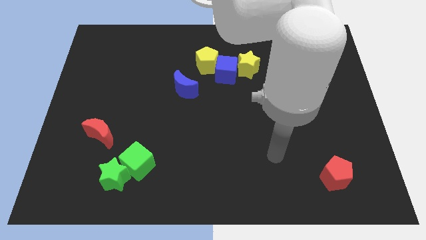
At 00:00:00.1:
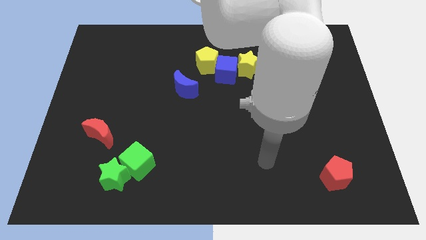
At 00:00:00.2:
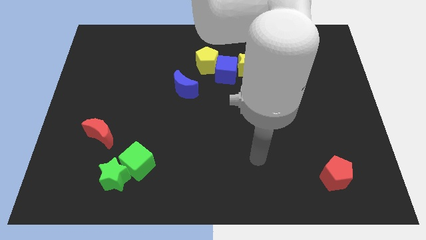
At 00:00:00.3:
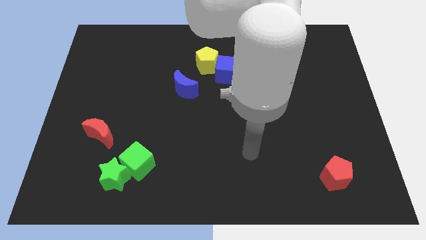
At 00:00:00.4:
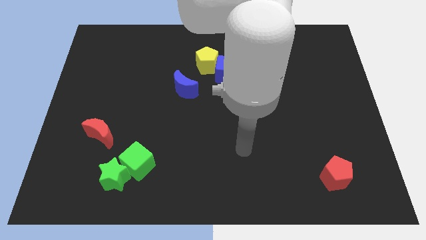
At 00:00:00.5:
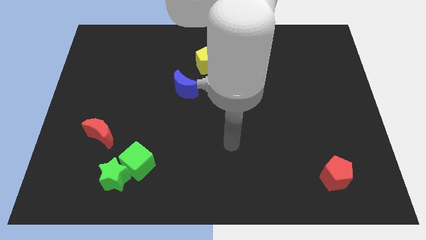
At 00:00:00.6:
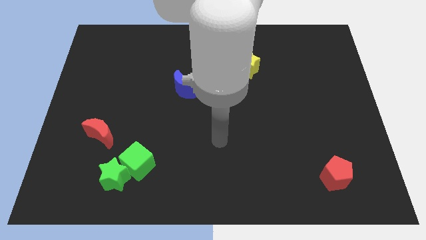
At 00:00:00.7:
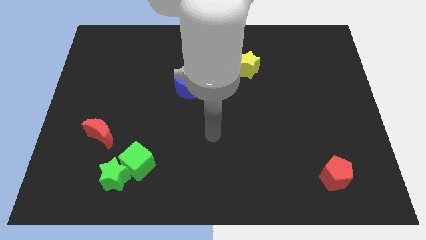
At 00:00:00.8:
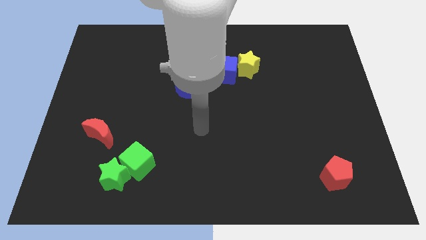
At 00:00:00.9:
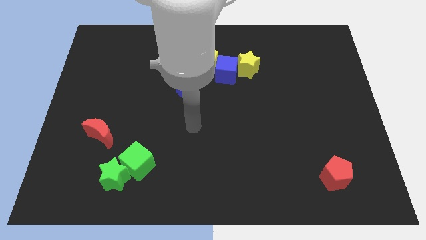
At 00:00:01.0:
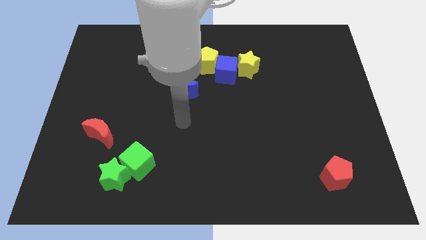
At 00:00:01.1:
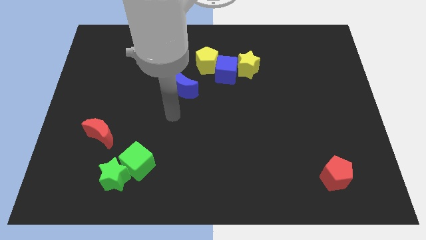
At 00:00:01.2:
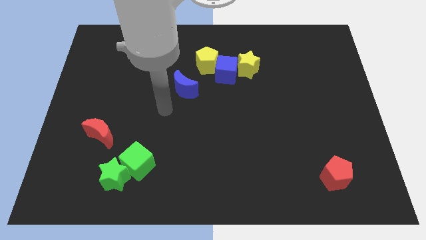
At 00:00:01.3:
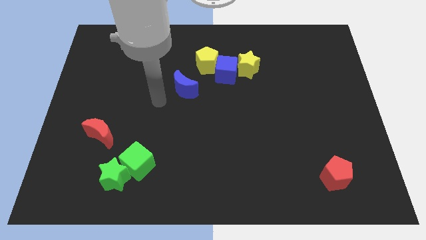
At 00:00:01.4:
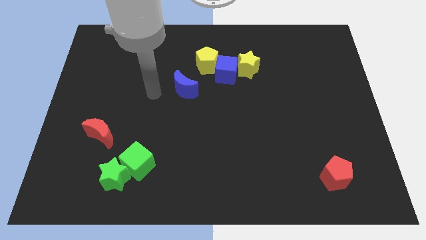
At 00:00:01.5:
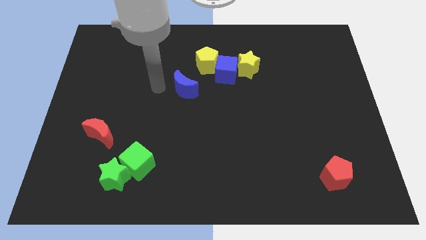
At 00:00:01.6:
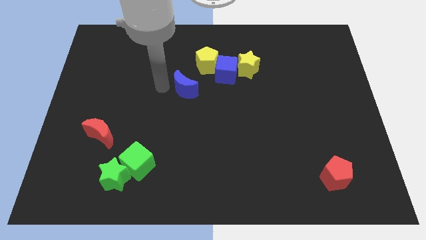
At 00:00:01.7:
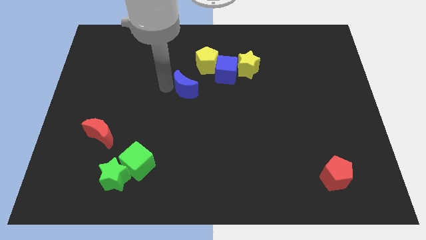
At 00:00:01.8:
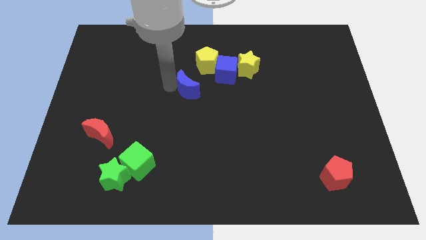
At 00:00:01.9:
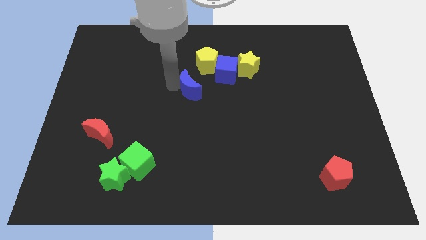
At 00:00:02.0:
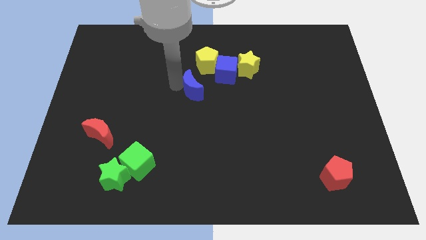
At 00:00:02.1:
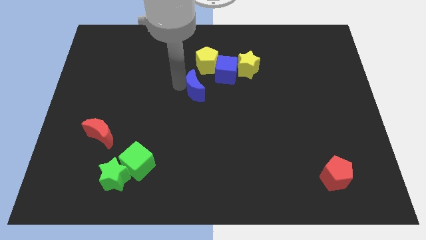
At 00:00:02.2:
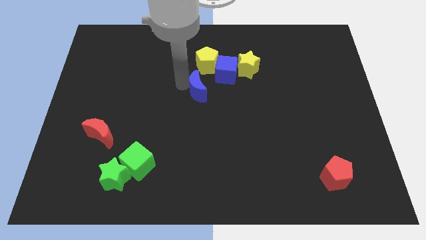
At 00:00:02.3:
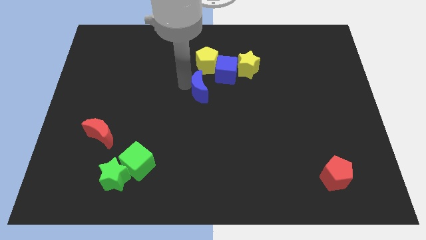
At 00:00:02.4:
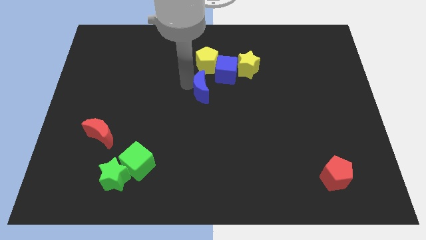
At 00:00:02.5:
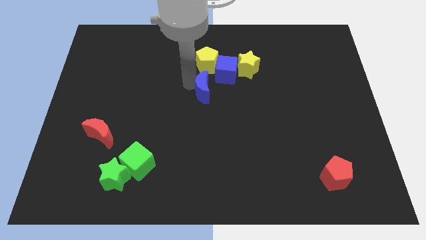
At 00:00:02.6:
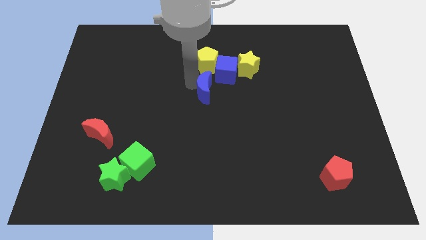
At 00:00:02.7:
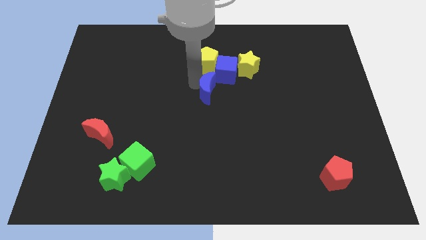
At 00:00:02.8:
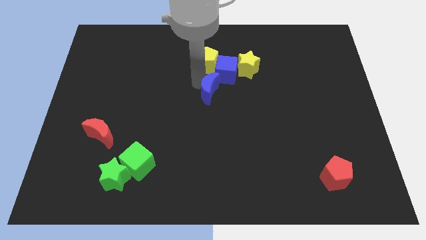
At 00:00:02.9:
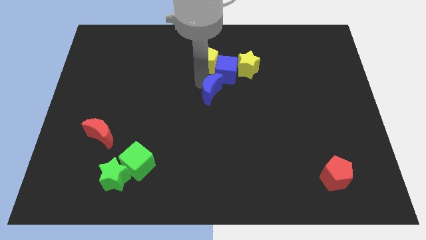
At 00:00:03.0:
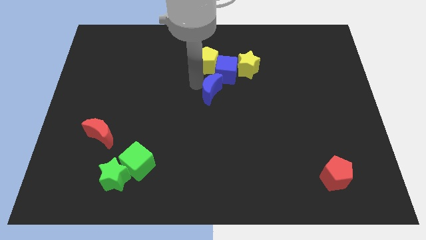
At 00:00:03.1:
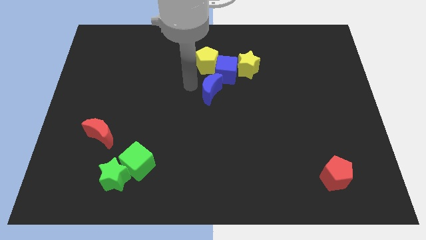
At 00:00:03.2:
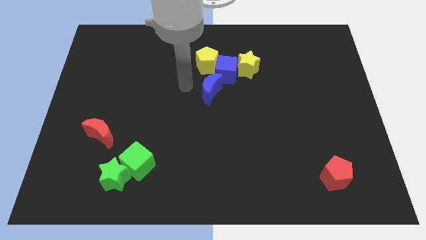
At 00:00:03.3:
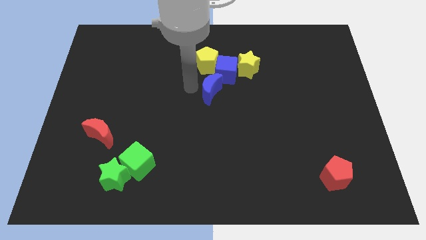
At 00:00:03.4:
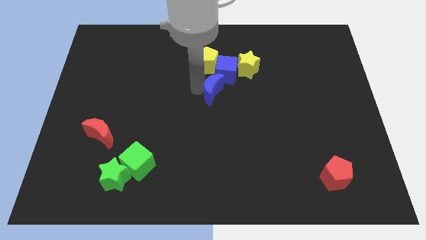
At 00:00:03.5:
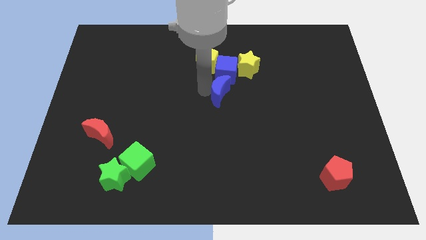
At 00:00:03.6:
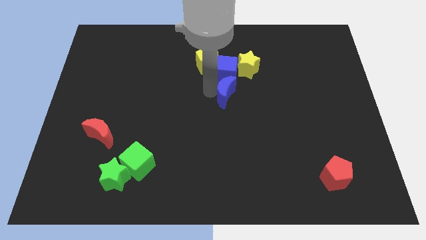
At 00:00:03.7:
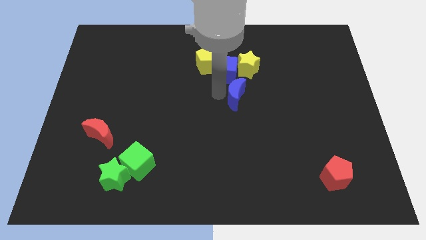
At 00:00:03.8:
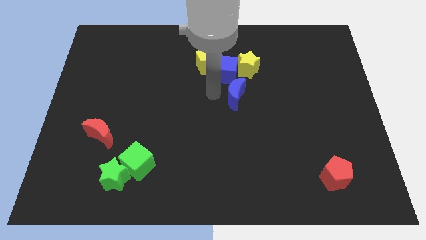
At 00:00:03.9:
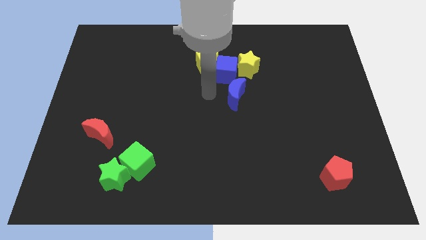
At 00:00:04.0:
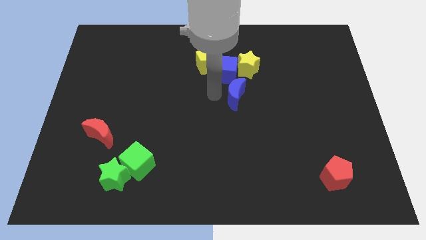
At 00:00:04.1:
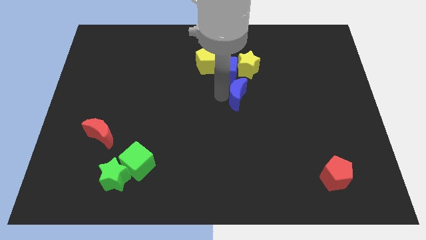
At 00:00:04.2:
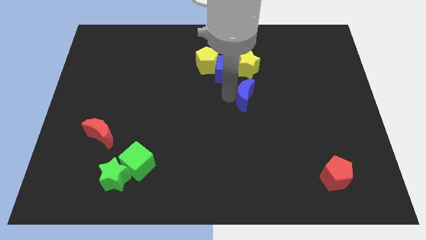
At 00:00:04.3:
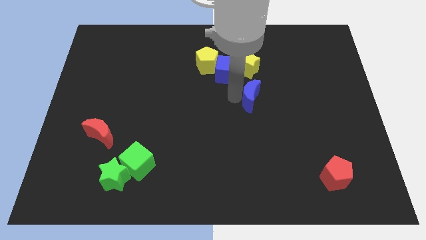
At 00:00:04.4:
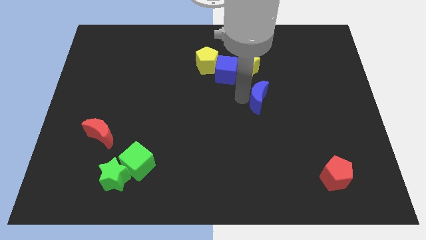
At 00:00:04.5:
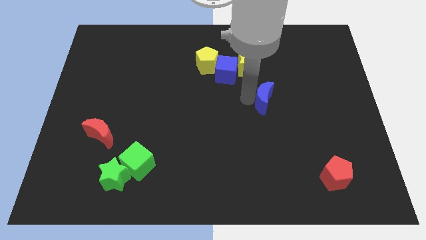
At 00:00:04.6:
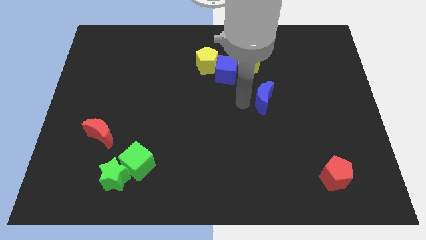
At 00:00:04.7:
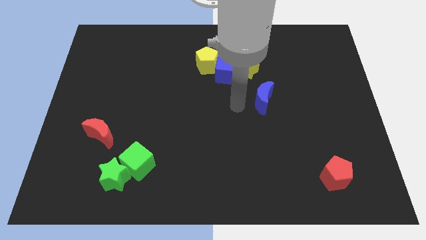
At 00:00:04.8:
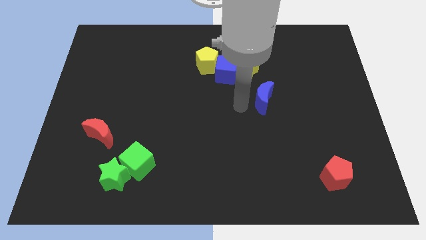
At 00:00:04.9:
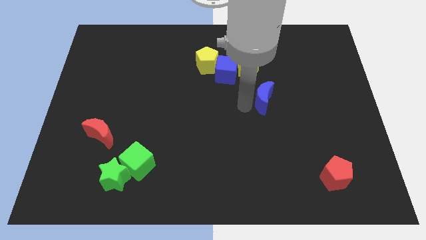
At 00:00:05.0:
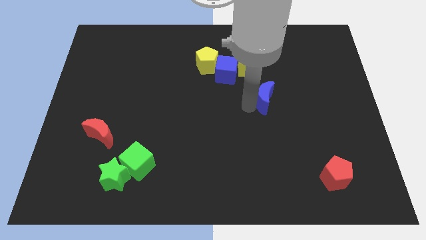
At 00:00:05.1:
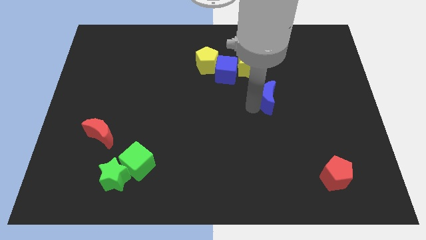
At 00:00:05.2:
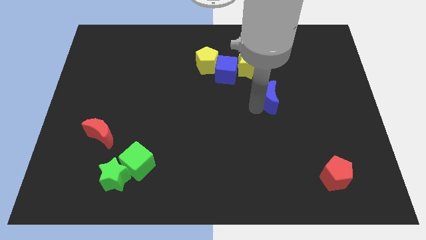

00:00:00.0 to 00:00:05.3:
move the blue moon to the right

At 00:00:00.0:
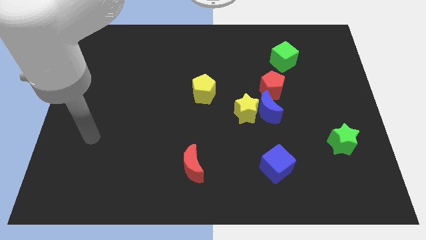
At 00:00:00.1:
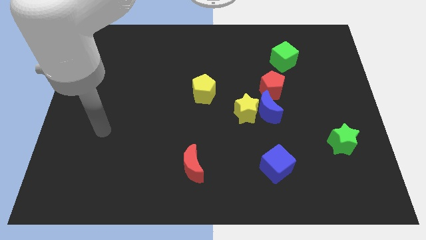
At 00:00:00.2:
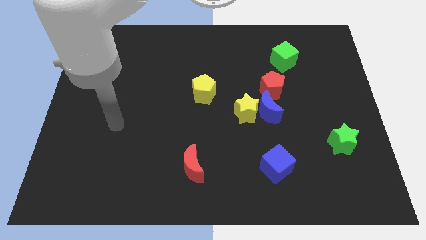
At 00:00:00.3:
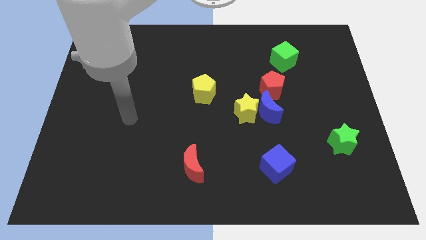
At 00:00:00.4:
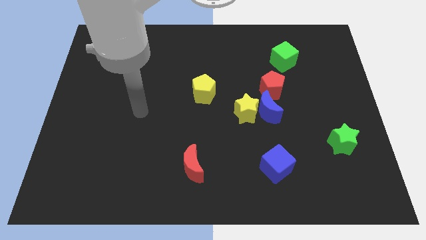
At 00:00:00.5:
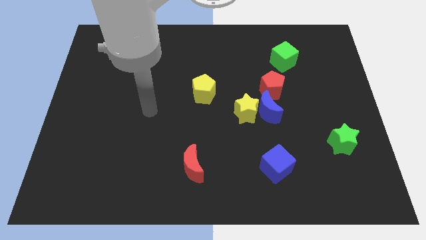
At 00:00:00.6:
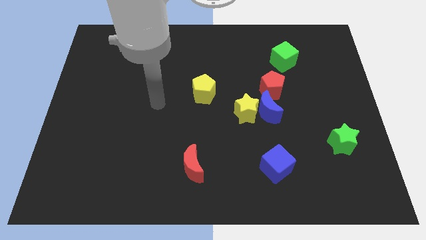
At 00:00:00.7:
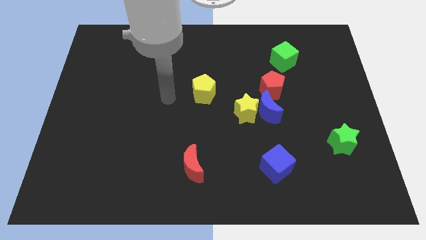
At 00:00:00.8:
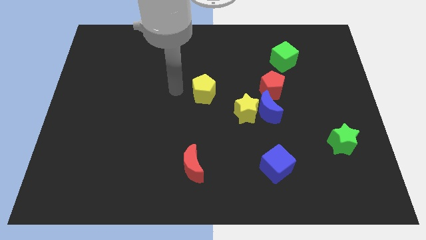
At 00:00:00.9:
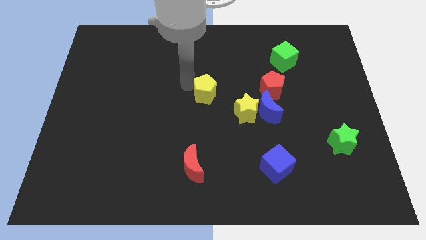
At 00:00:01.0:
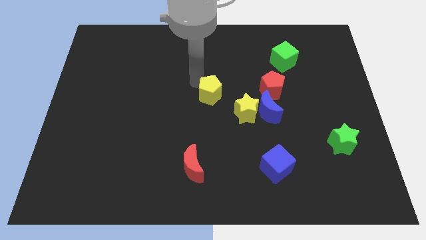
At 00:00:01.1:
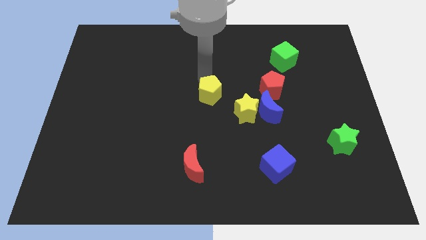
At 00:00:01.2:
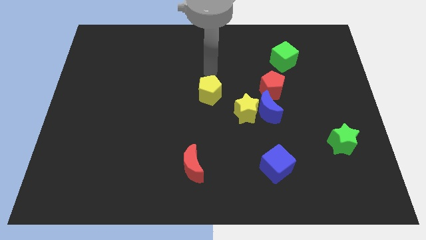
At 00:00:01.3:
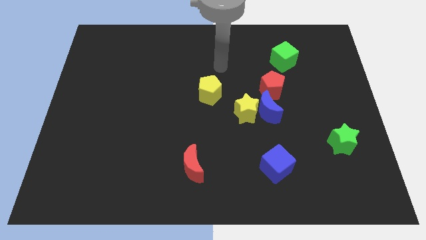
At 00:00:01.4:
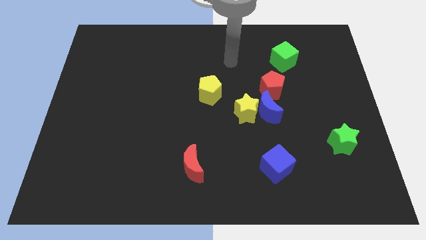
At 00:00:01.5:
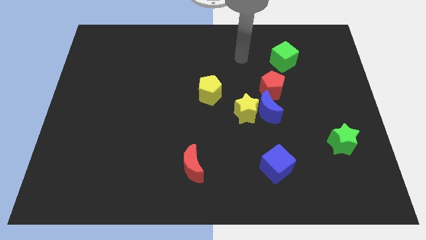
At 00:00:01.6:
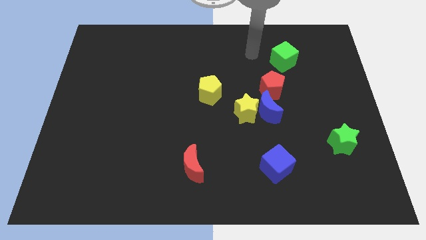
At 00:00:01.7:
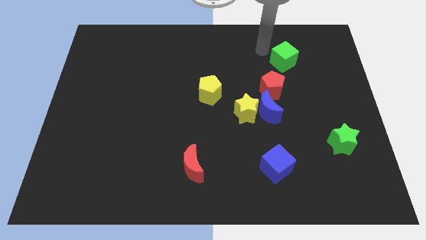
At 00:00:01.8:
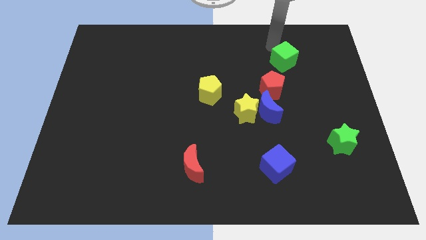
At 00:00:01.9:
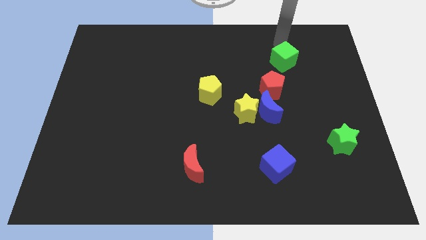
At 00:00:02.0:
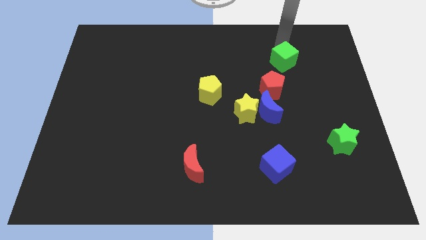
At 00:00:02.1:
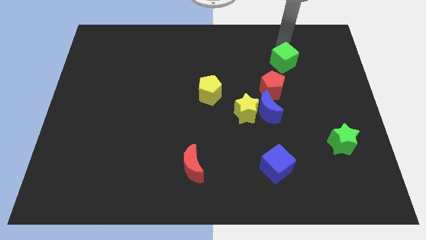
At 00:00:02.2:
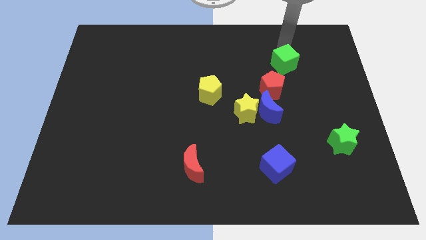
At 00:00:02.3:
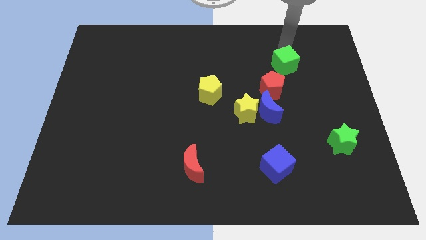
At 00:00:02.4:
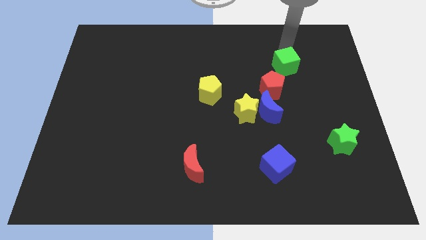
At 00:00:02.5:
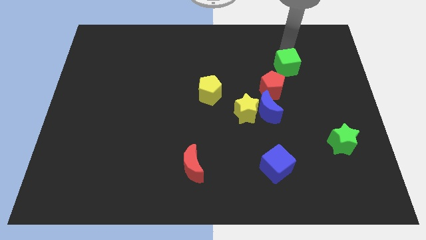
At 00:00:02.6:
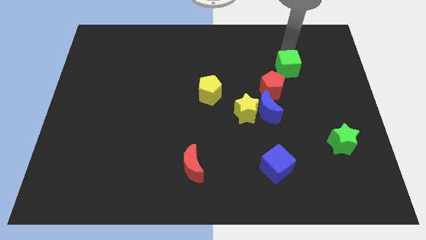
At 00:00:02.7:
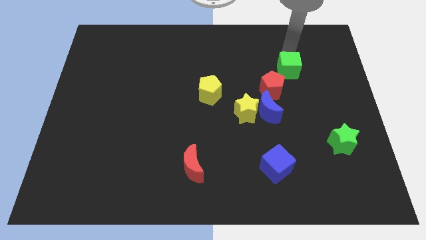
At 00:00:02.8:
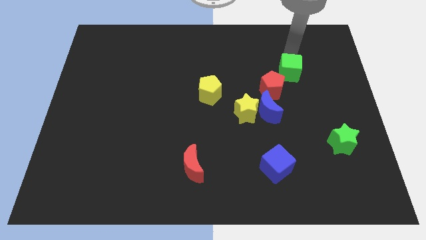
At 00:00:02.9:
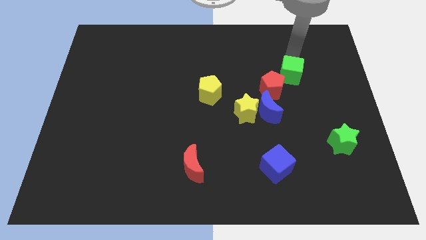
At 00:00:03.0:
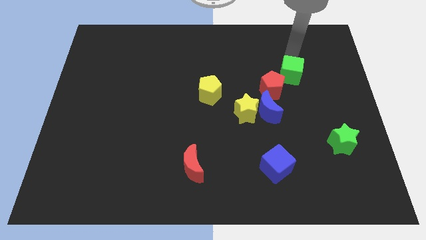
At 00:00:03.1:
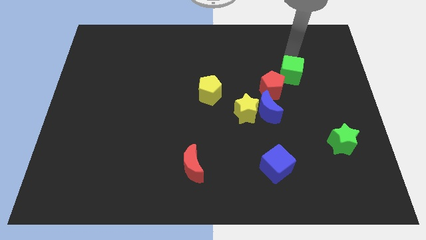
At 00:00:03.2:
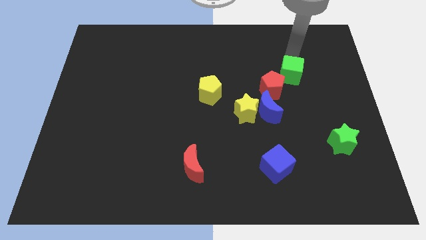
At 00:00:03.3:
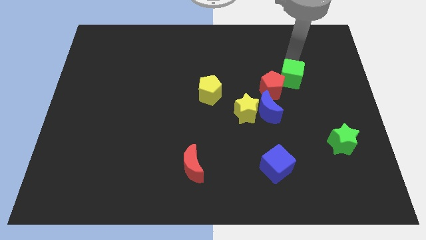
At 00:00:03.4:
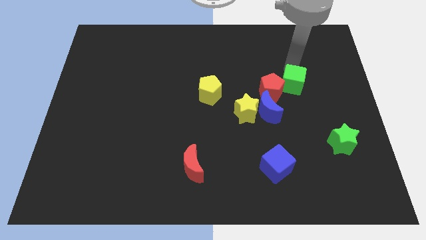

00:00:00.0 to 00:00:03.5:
slide the green cube slightly downwards
